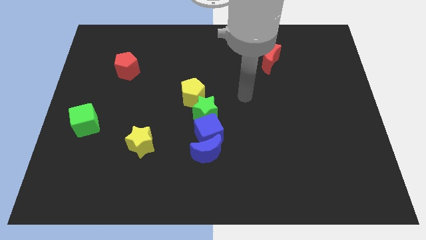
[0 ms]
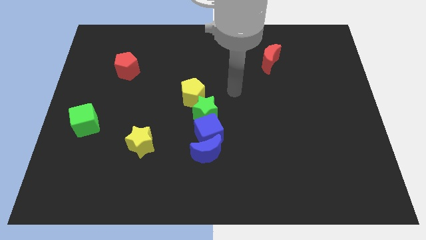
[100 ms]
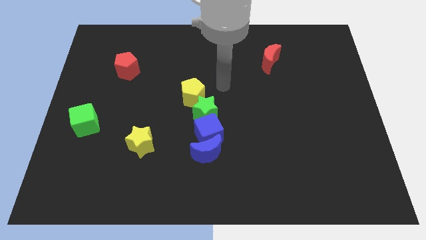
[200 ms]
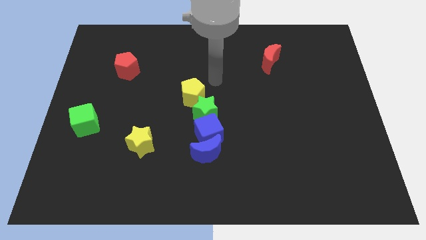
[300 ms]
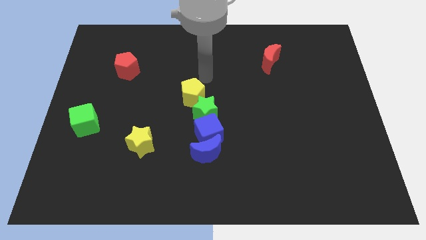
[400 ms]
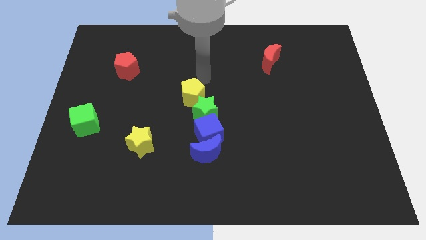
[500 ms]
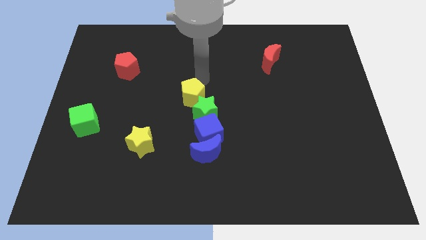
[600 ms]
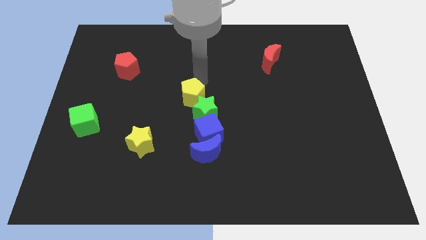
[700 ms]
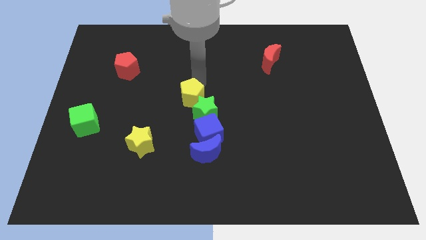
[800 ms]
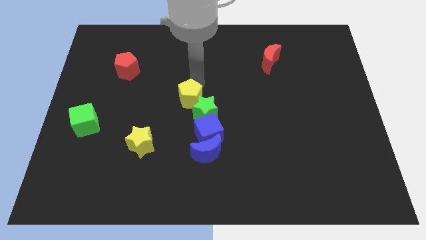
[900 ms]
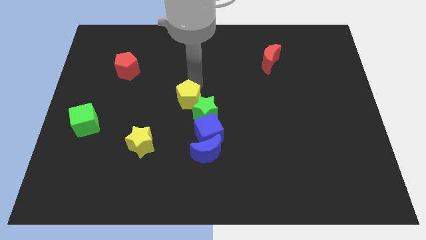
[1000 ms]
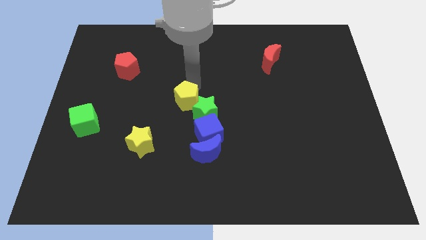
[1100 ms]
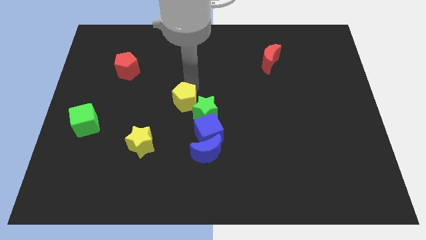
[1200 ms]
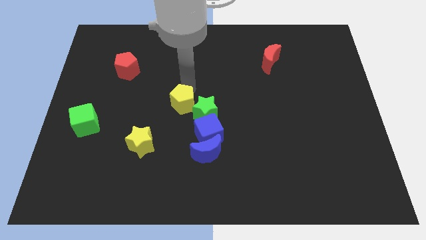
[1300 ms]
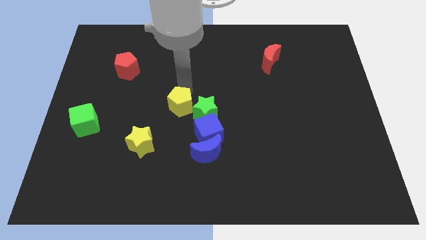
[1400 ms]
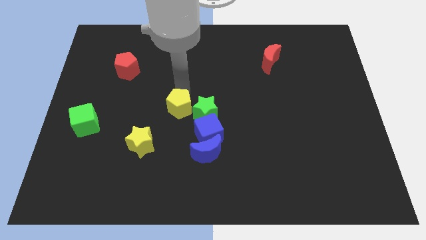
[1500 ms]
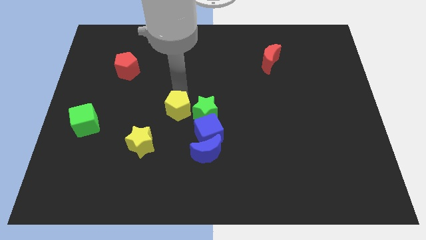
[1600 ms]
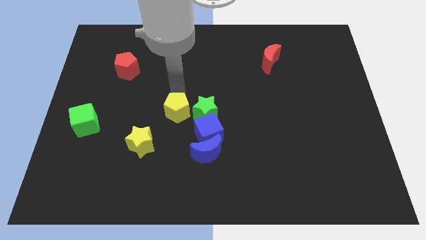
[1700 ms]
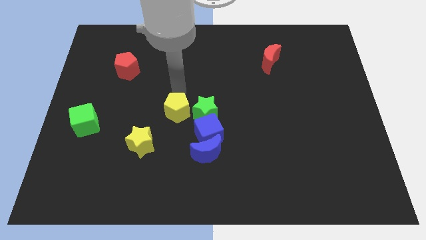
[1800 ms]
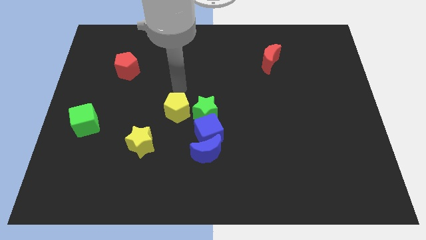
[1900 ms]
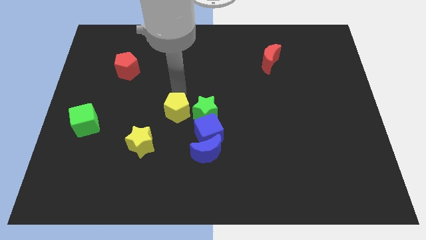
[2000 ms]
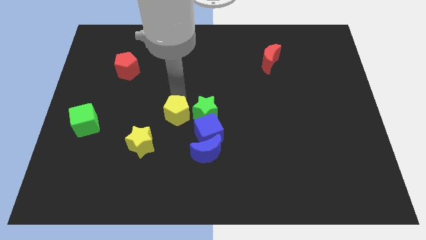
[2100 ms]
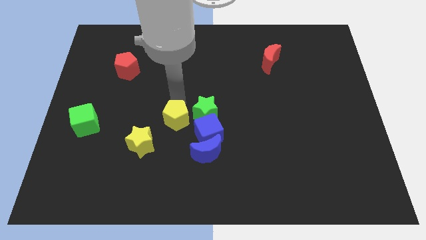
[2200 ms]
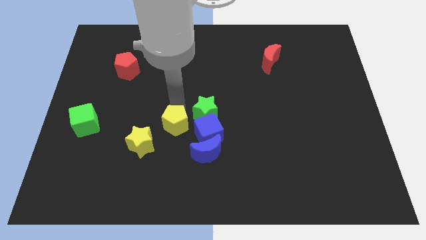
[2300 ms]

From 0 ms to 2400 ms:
slightly push the yellow pentagon downwards

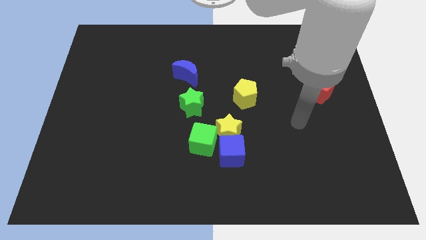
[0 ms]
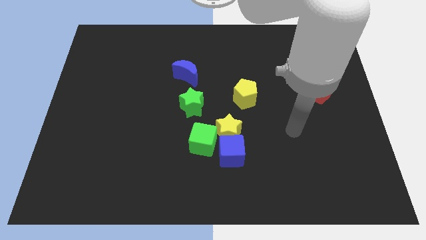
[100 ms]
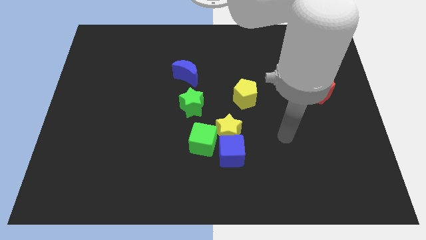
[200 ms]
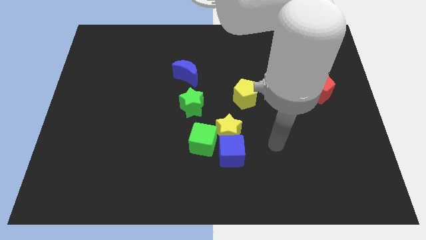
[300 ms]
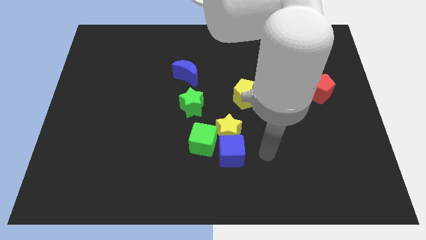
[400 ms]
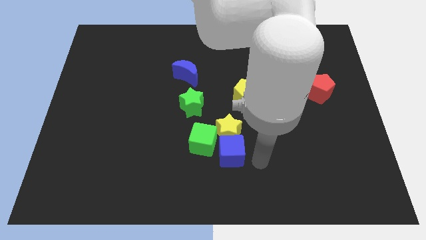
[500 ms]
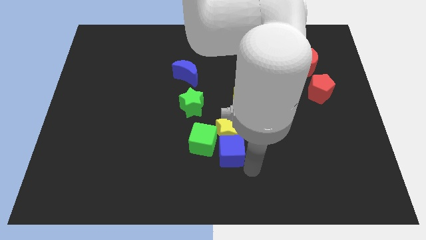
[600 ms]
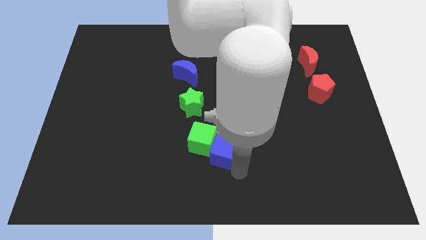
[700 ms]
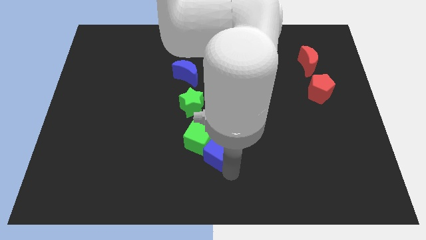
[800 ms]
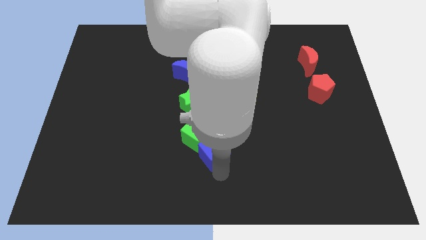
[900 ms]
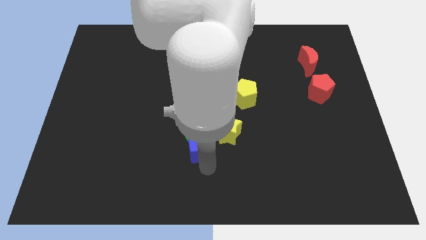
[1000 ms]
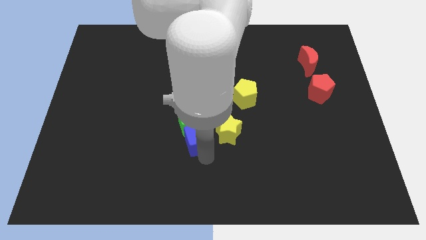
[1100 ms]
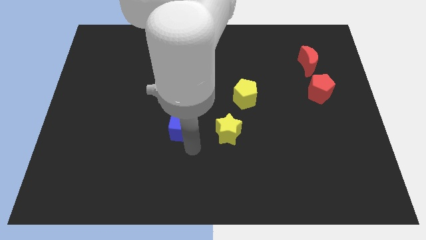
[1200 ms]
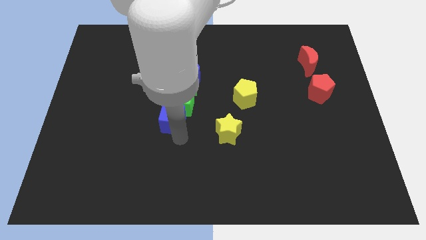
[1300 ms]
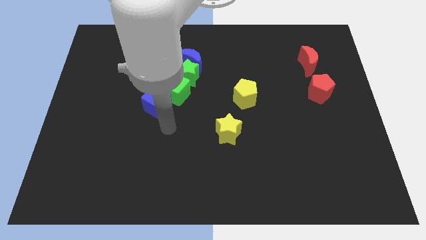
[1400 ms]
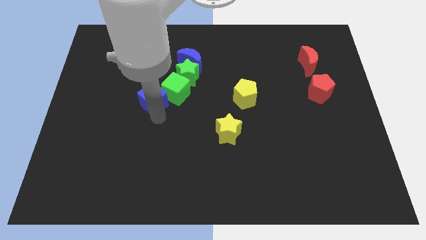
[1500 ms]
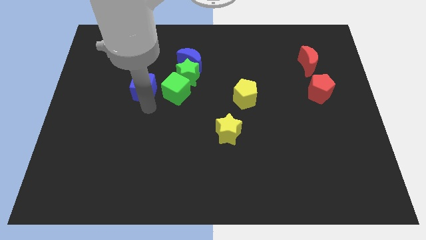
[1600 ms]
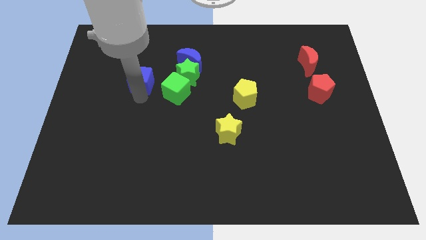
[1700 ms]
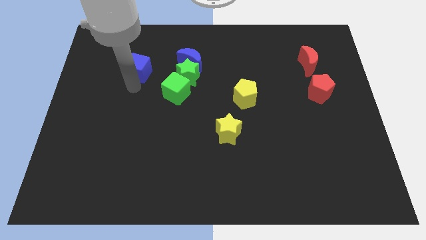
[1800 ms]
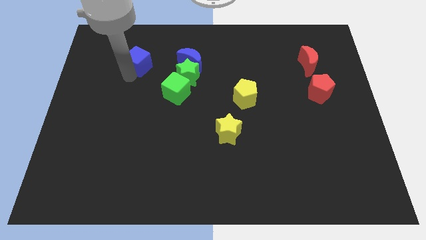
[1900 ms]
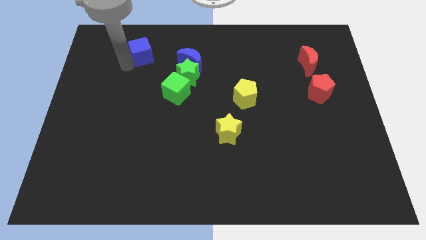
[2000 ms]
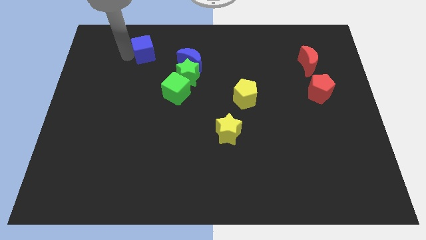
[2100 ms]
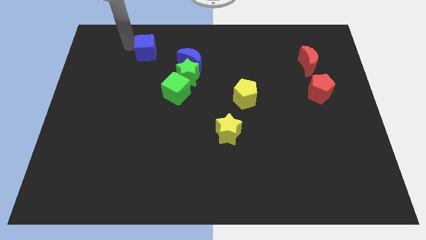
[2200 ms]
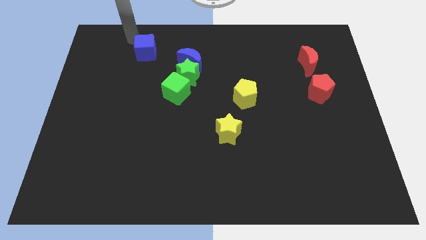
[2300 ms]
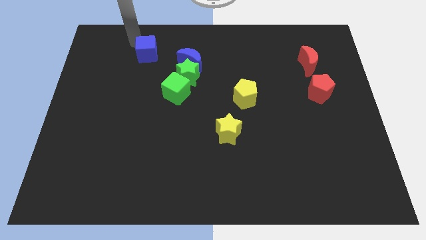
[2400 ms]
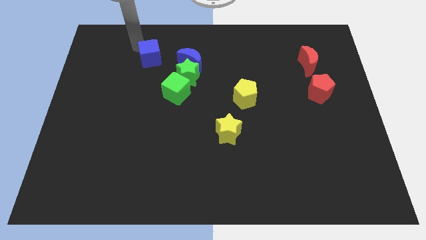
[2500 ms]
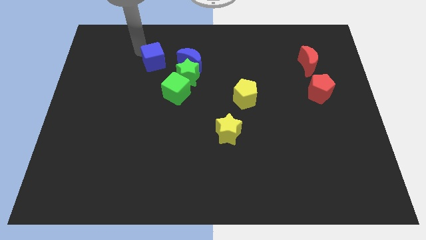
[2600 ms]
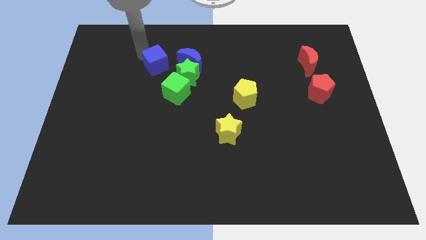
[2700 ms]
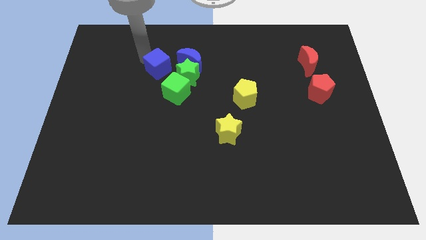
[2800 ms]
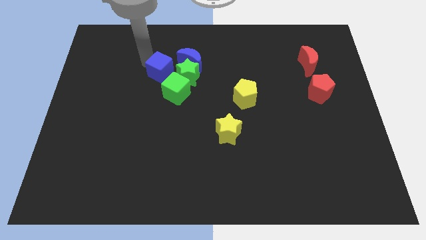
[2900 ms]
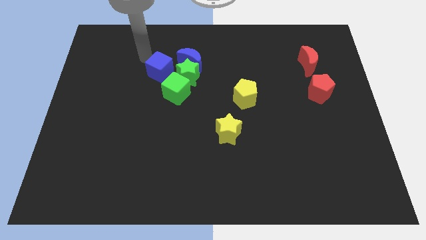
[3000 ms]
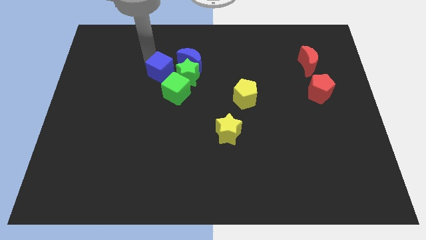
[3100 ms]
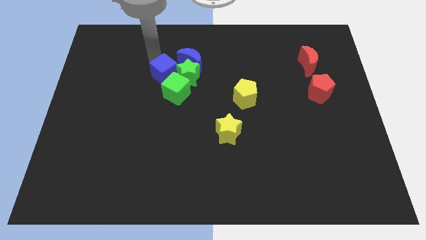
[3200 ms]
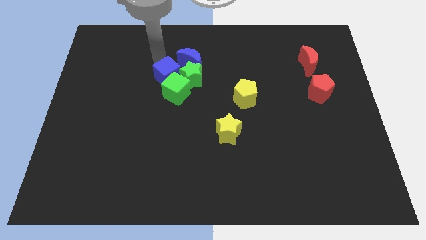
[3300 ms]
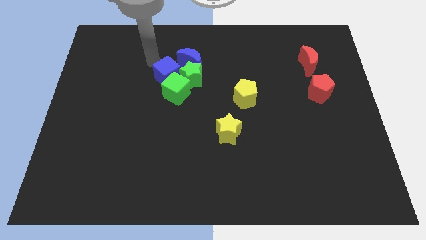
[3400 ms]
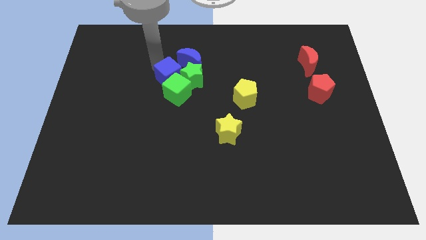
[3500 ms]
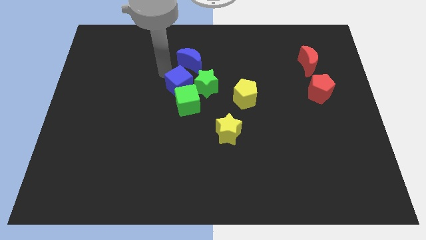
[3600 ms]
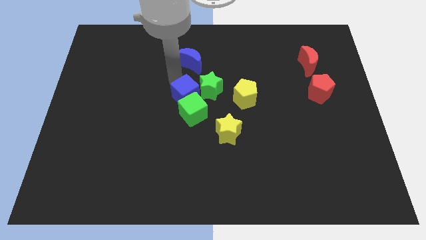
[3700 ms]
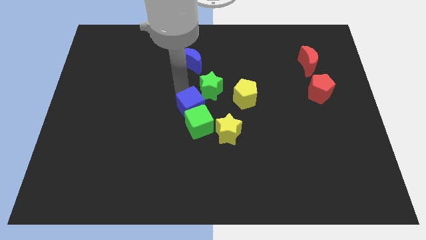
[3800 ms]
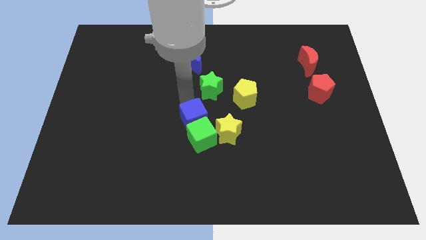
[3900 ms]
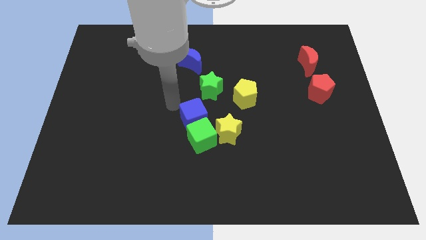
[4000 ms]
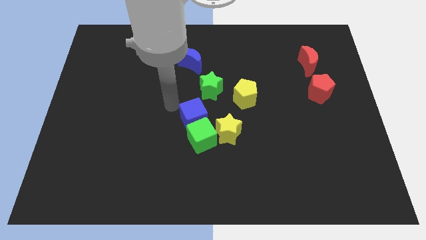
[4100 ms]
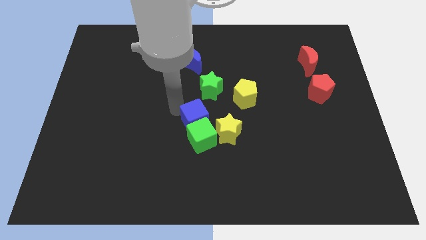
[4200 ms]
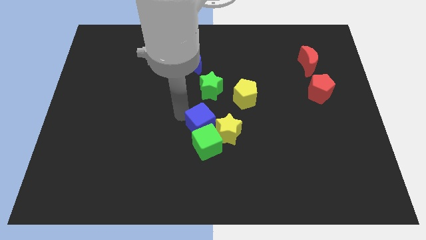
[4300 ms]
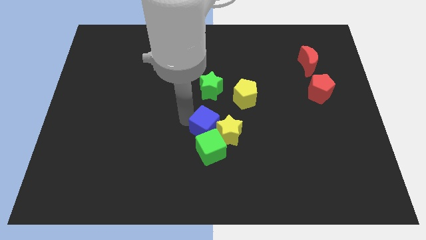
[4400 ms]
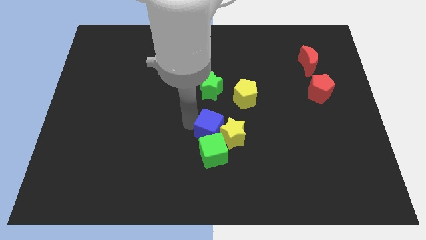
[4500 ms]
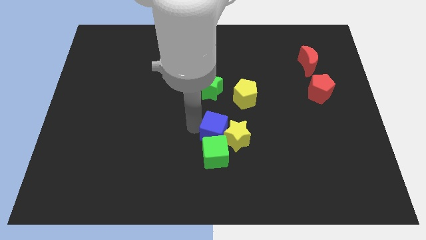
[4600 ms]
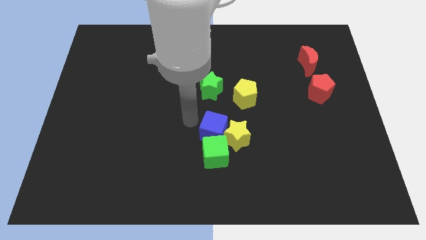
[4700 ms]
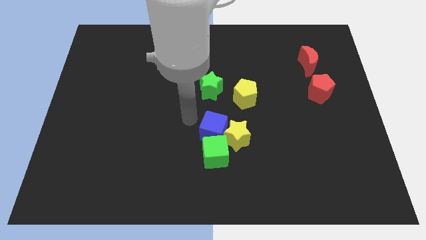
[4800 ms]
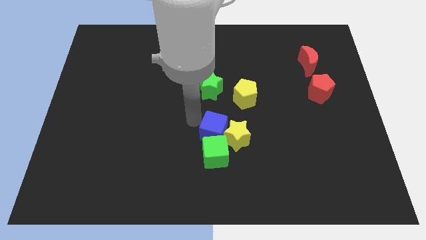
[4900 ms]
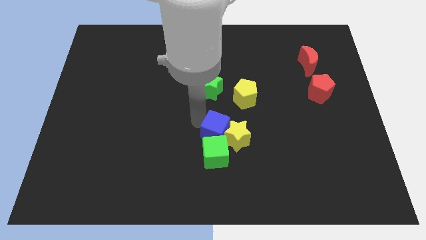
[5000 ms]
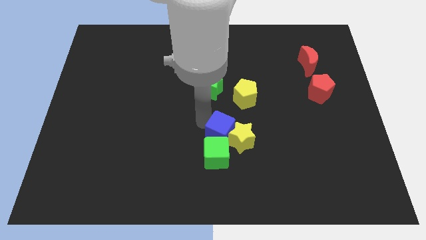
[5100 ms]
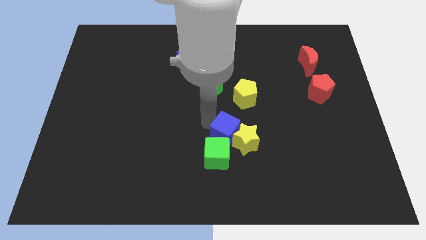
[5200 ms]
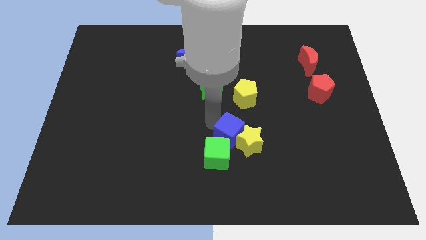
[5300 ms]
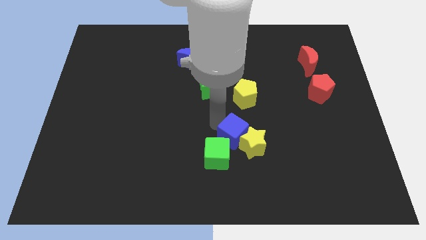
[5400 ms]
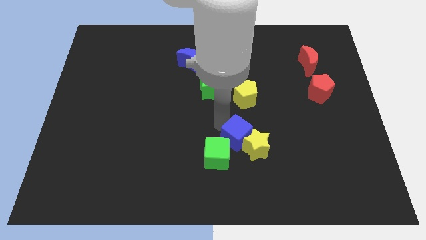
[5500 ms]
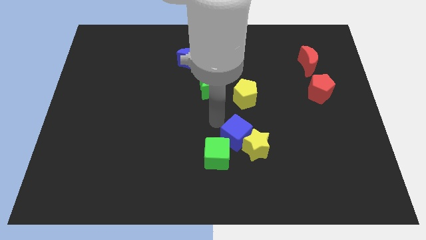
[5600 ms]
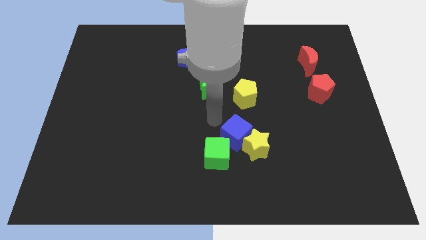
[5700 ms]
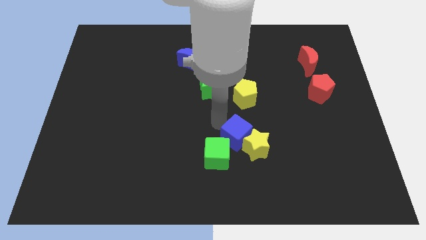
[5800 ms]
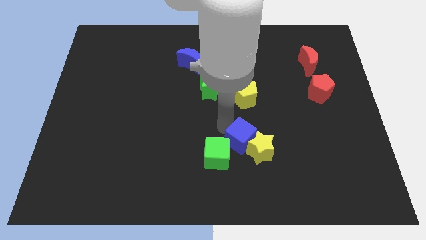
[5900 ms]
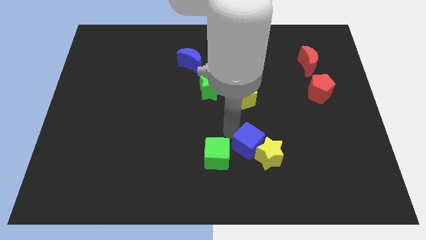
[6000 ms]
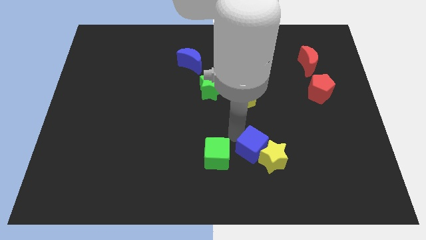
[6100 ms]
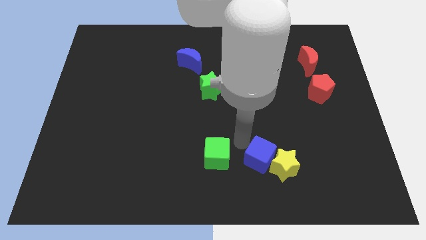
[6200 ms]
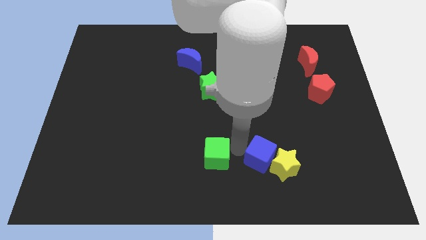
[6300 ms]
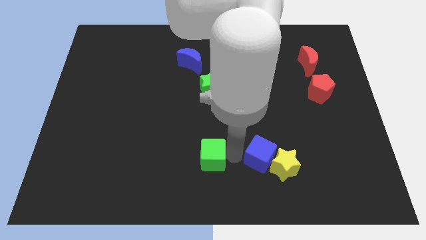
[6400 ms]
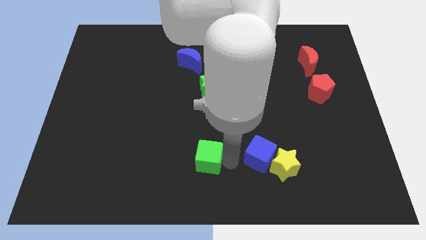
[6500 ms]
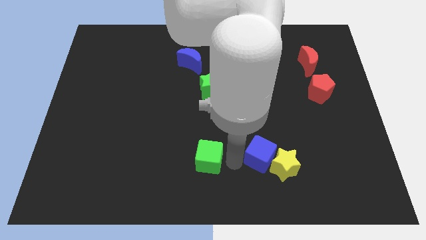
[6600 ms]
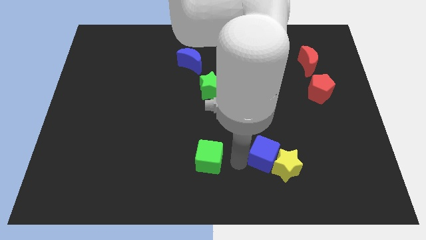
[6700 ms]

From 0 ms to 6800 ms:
slide the blue cube somewhat to the right
